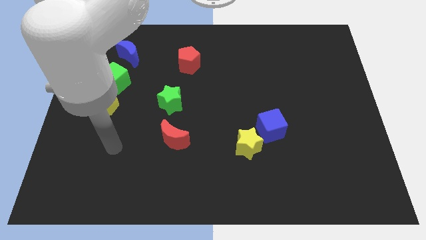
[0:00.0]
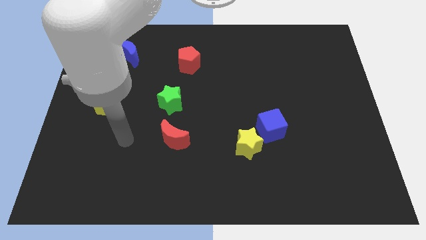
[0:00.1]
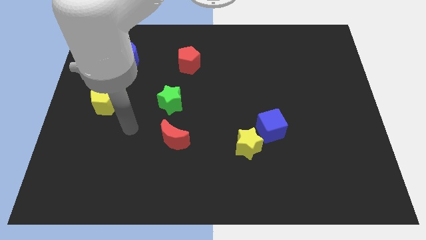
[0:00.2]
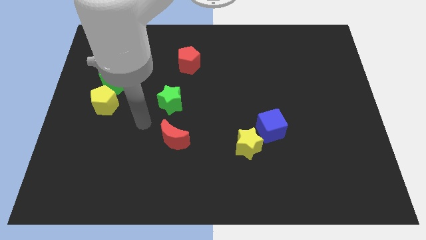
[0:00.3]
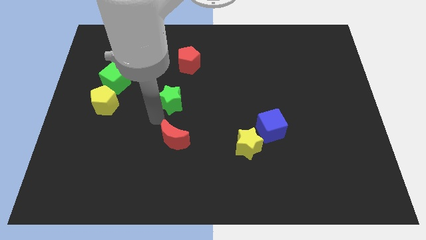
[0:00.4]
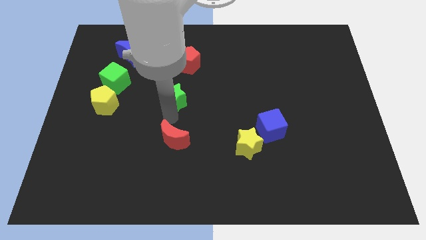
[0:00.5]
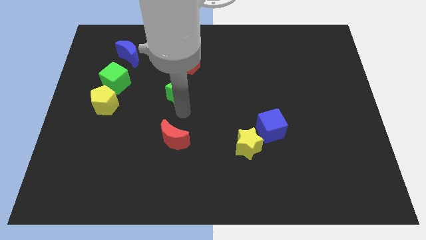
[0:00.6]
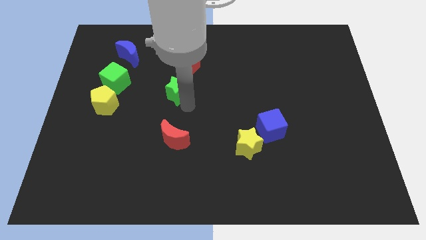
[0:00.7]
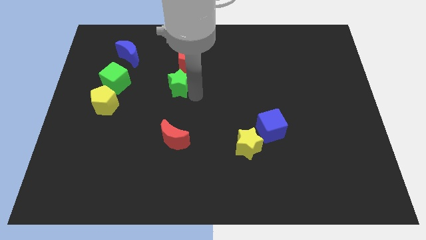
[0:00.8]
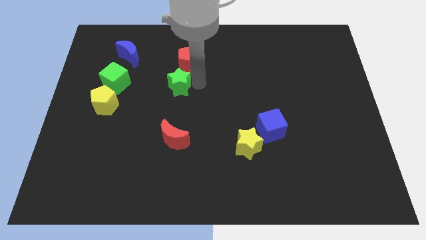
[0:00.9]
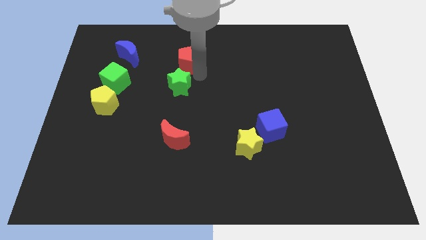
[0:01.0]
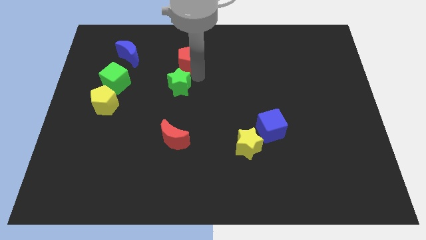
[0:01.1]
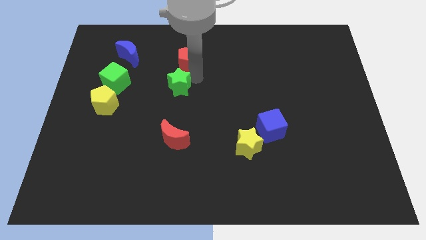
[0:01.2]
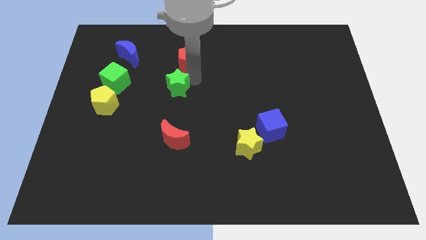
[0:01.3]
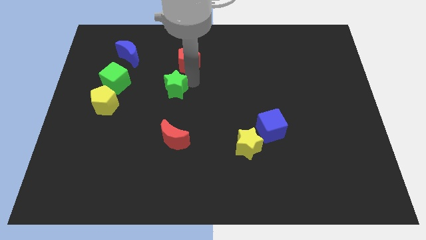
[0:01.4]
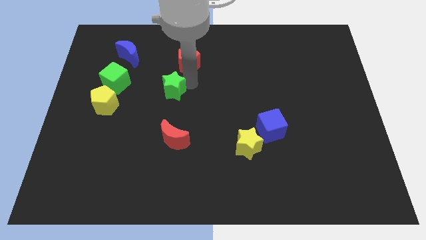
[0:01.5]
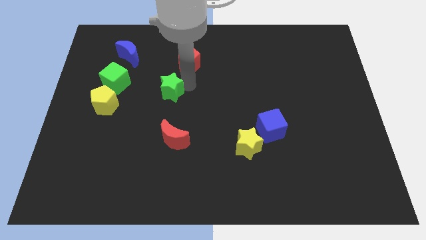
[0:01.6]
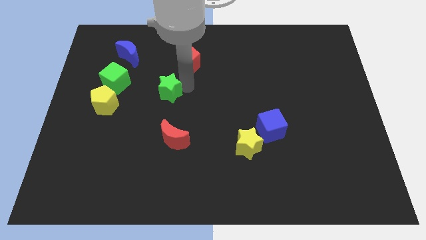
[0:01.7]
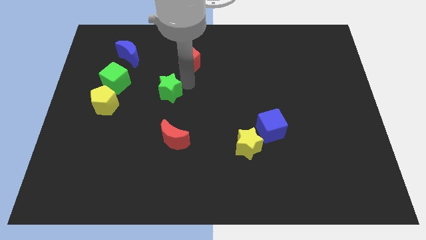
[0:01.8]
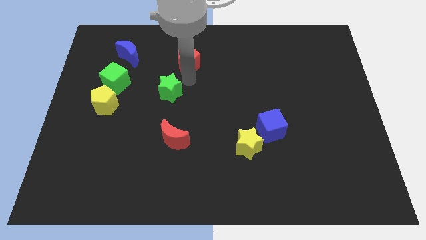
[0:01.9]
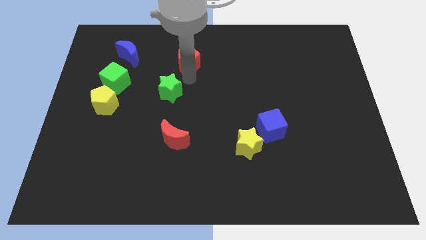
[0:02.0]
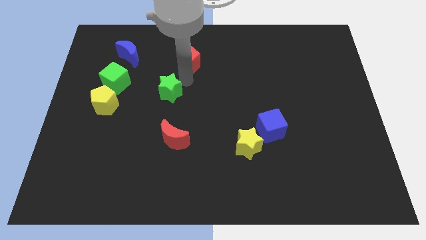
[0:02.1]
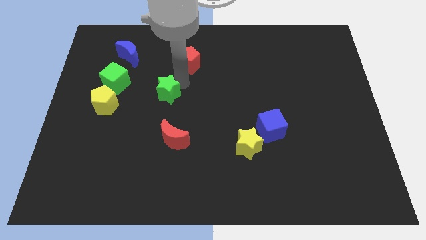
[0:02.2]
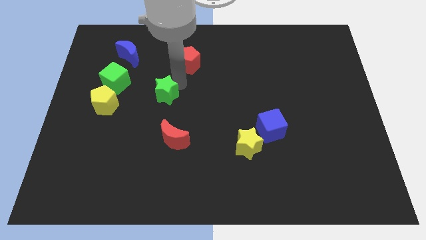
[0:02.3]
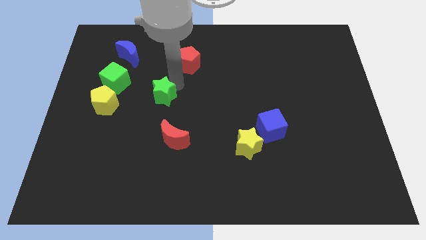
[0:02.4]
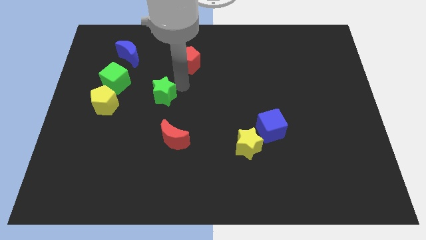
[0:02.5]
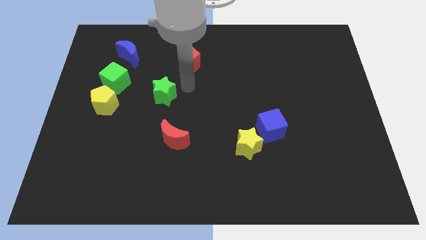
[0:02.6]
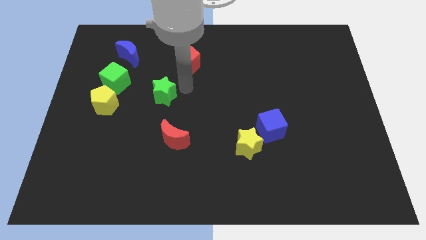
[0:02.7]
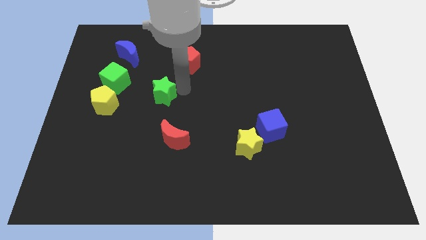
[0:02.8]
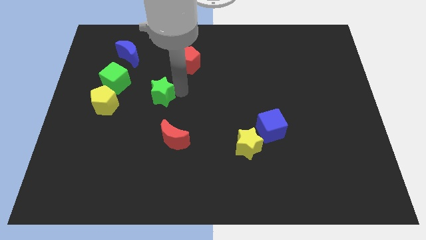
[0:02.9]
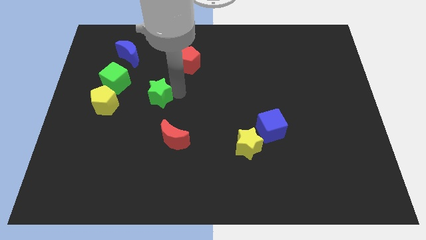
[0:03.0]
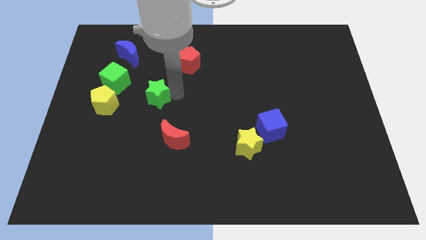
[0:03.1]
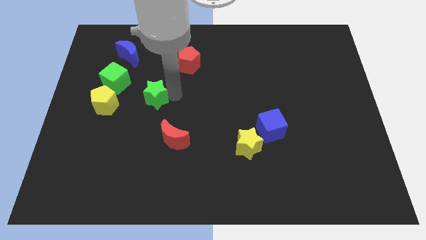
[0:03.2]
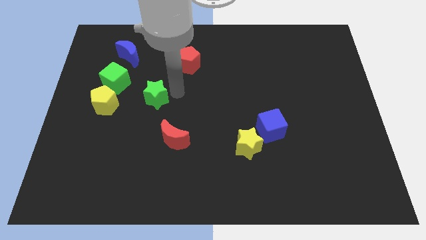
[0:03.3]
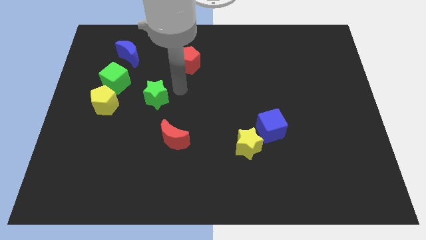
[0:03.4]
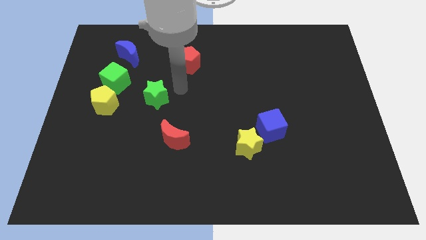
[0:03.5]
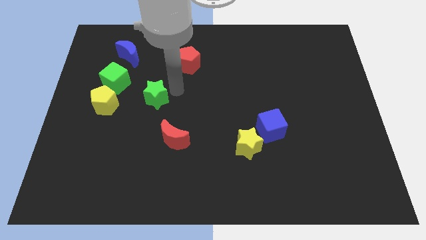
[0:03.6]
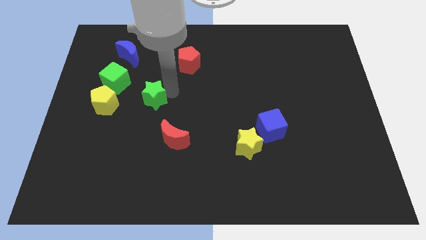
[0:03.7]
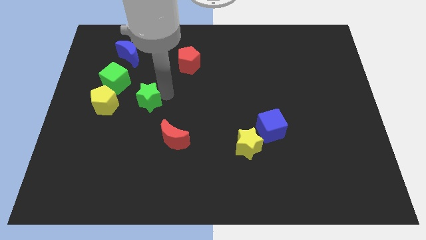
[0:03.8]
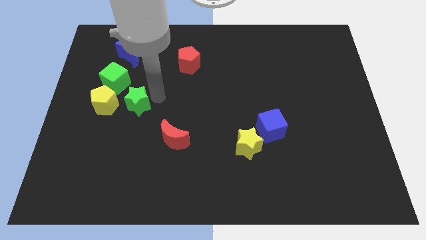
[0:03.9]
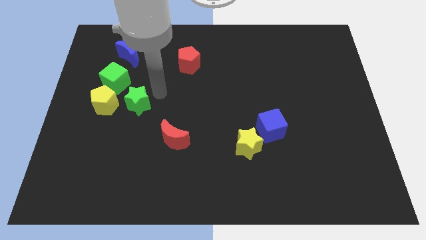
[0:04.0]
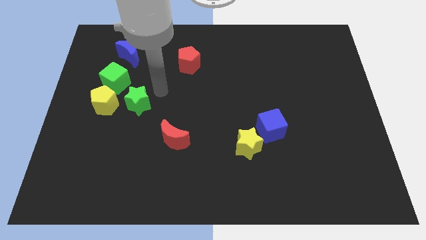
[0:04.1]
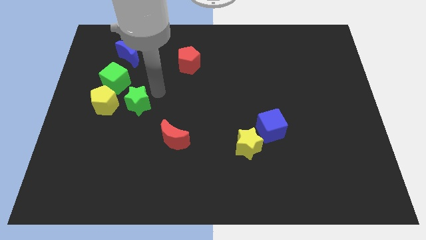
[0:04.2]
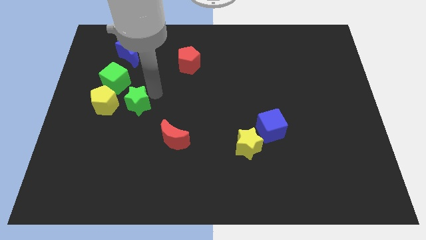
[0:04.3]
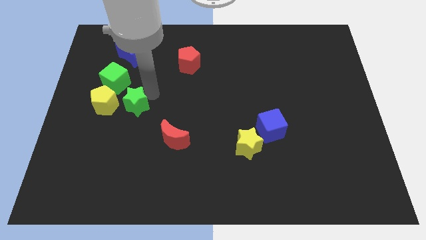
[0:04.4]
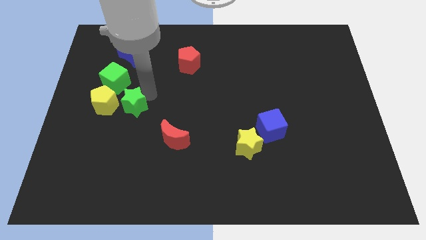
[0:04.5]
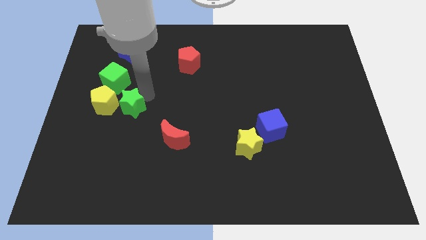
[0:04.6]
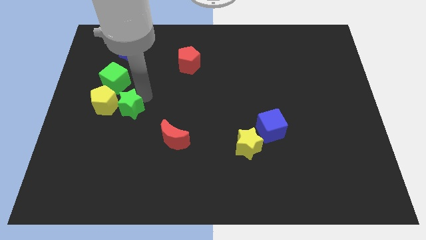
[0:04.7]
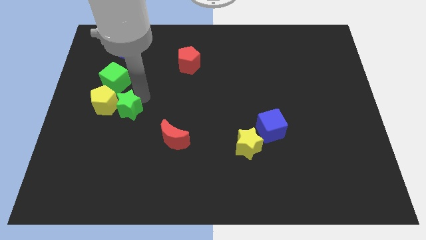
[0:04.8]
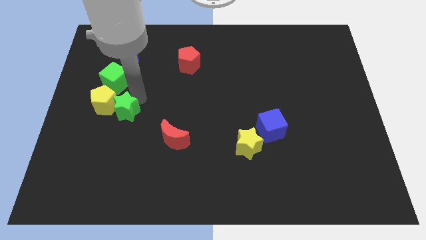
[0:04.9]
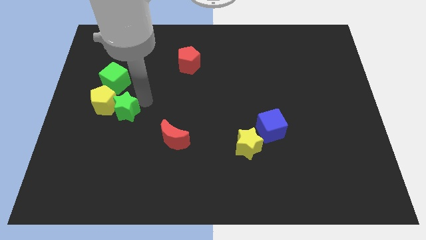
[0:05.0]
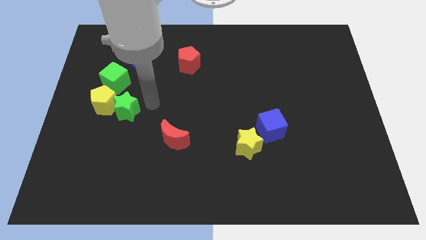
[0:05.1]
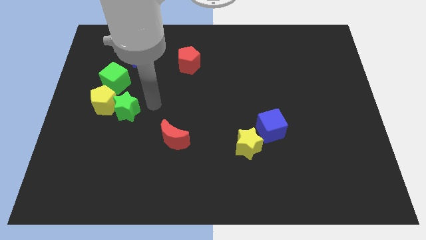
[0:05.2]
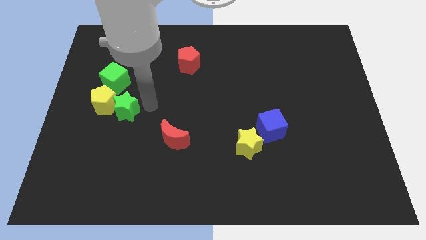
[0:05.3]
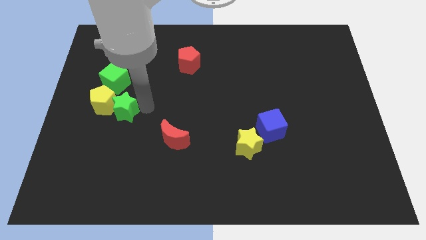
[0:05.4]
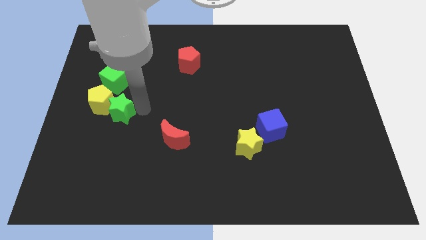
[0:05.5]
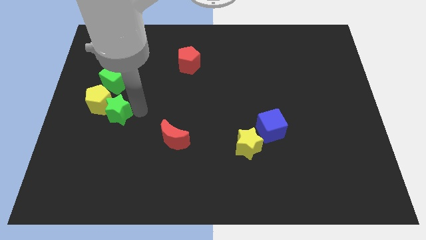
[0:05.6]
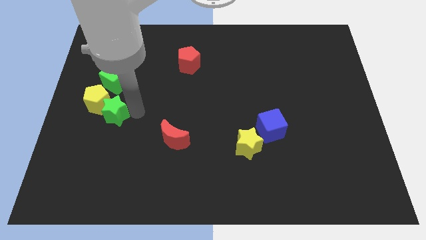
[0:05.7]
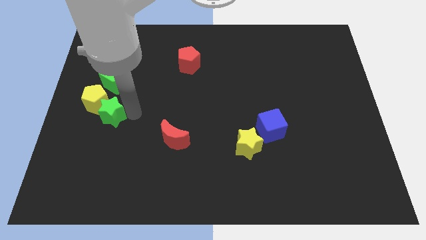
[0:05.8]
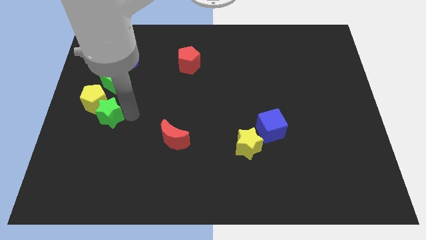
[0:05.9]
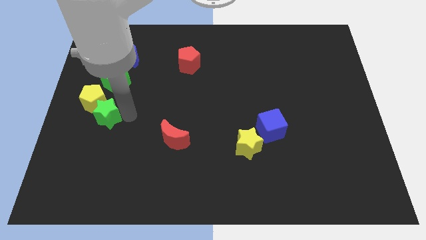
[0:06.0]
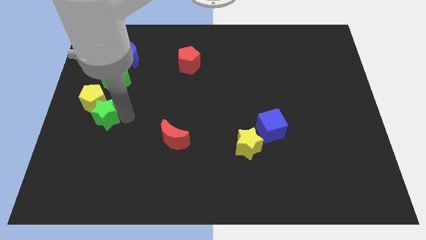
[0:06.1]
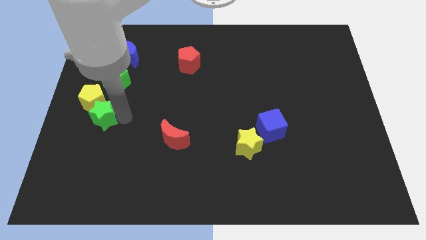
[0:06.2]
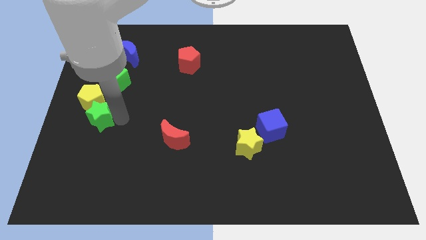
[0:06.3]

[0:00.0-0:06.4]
push the green star to the left side of the board
